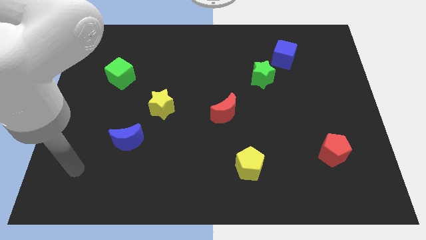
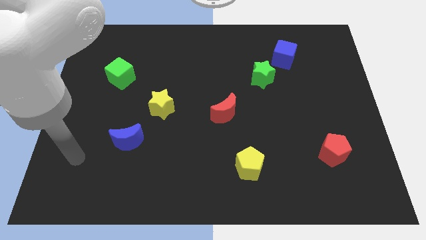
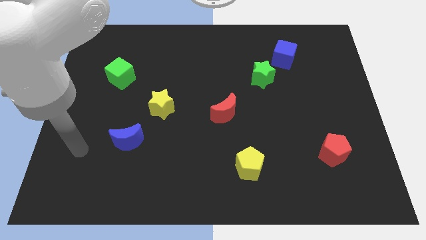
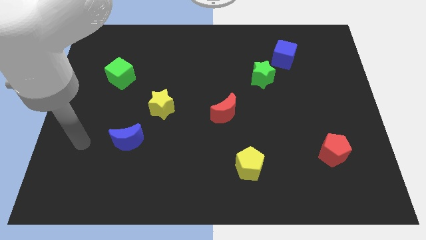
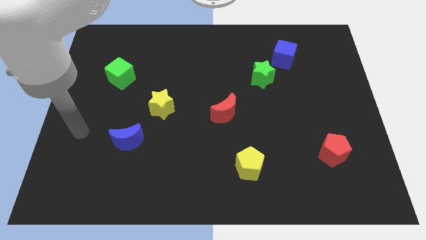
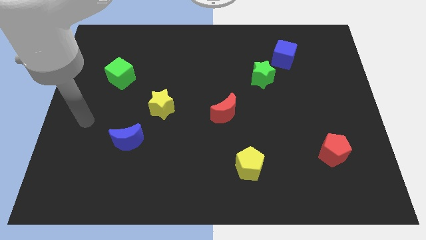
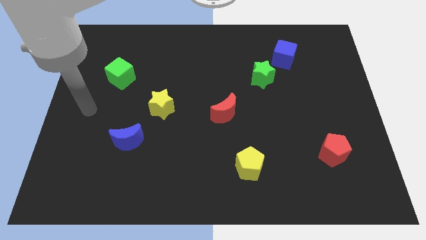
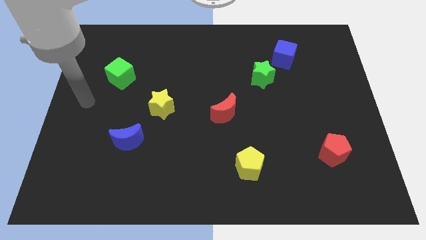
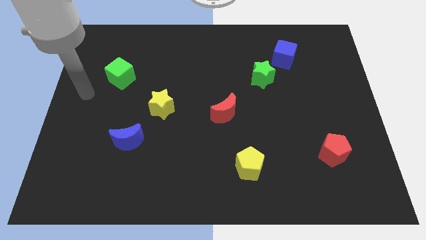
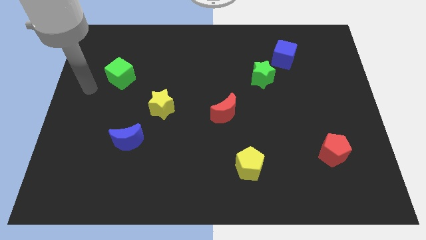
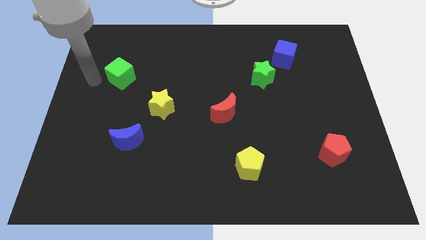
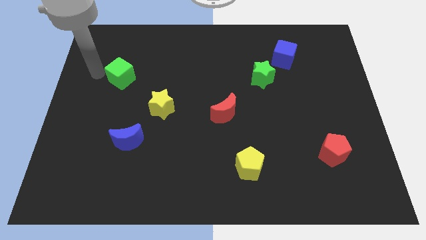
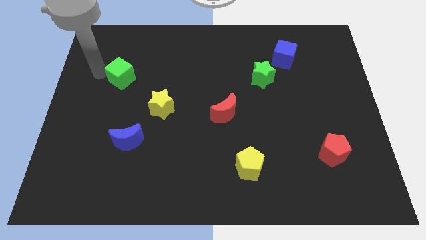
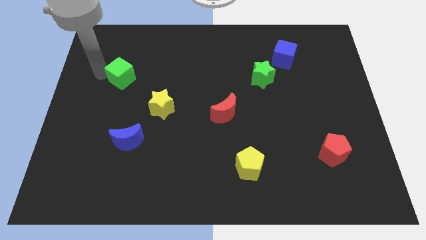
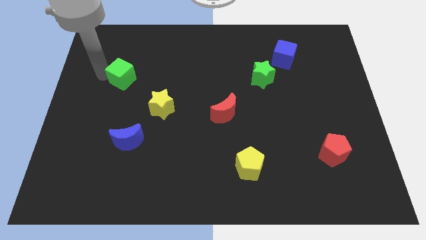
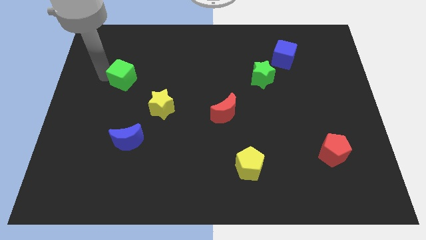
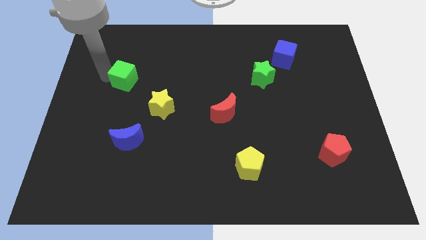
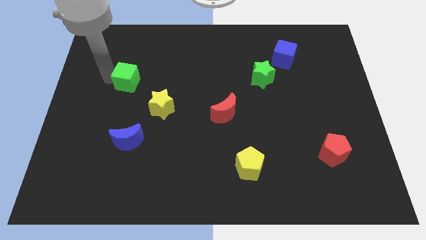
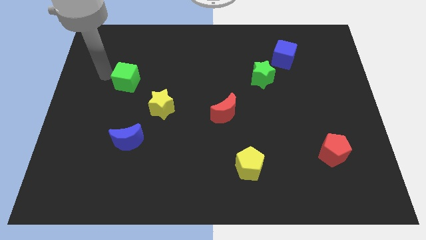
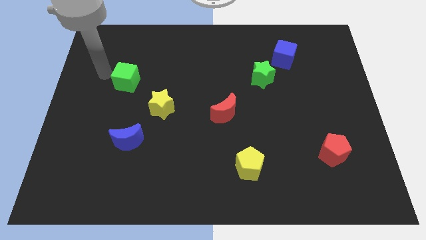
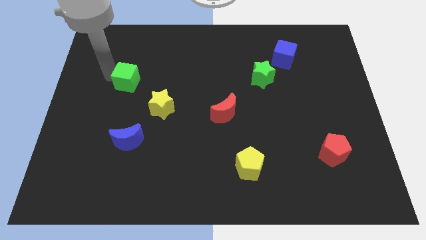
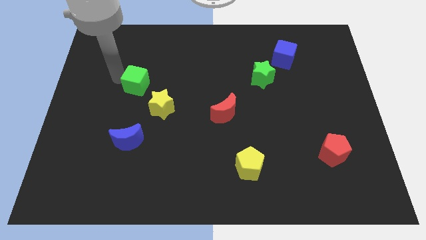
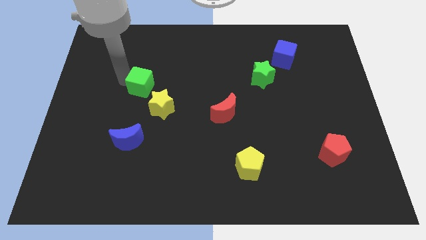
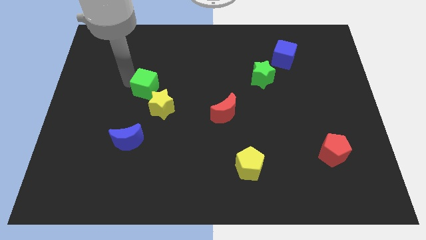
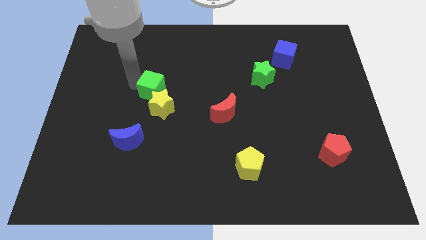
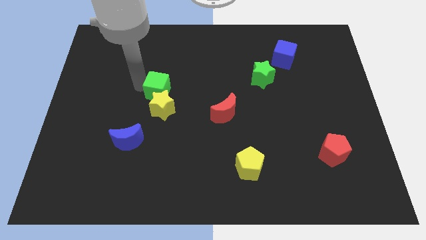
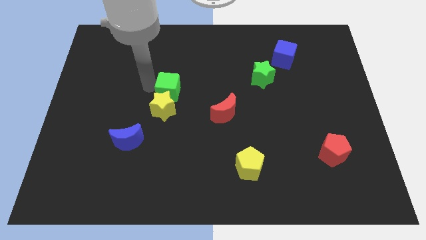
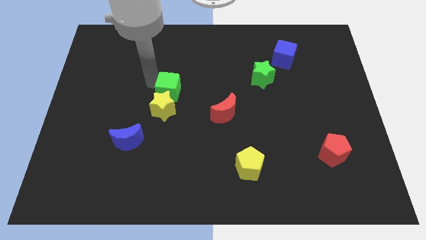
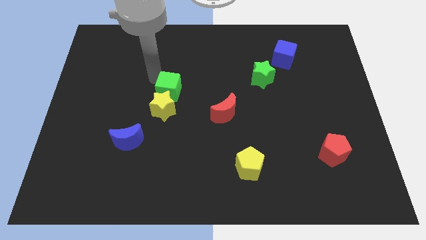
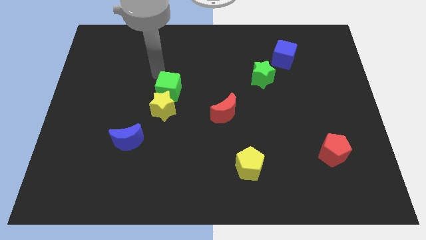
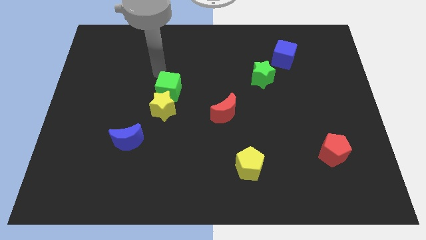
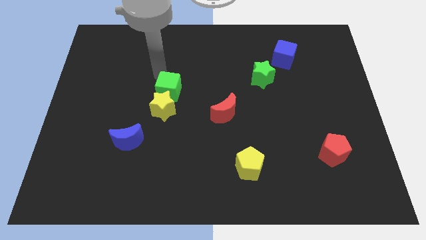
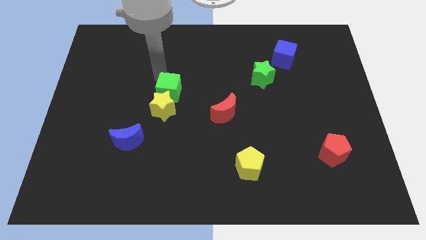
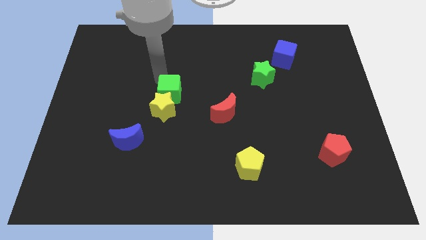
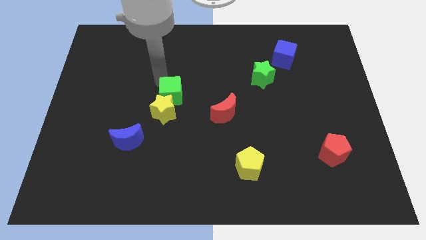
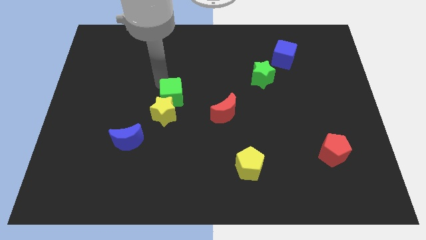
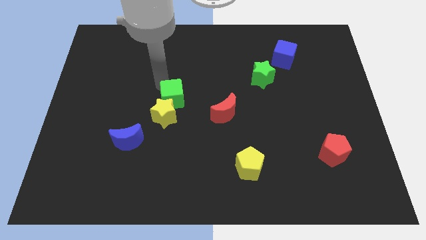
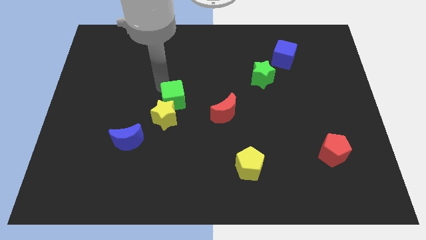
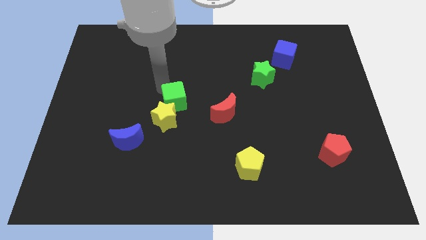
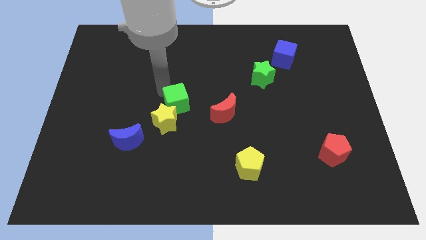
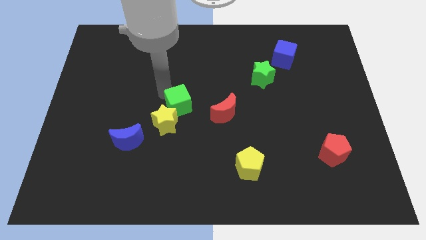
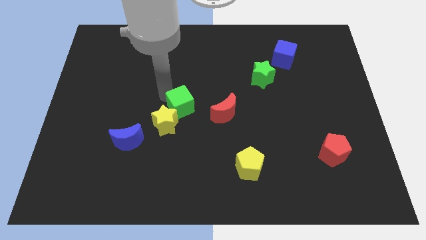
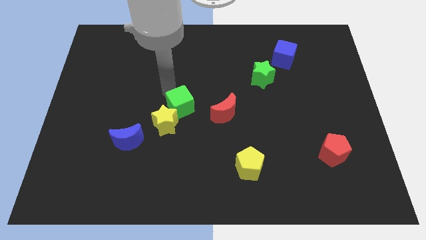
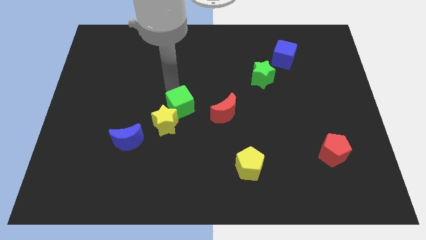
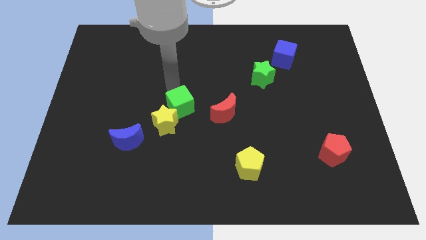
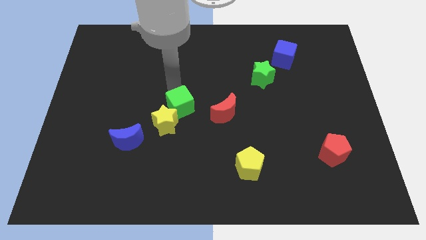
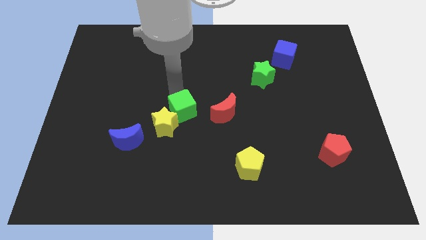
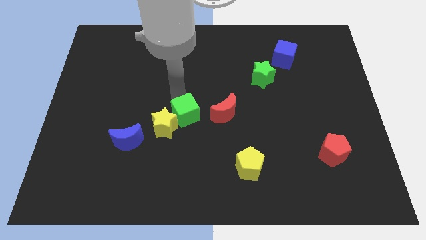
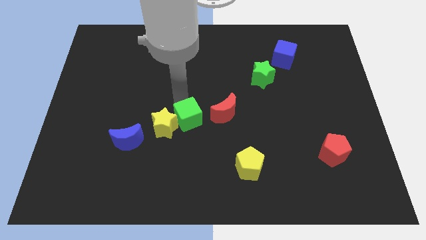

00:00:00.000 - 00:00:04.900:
push the green cube downwards and to the right diagonally

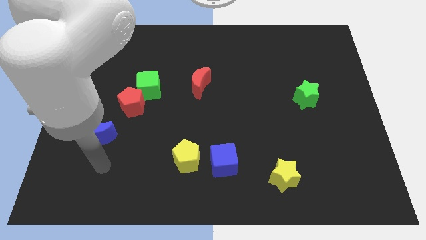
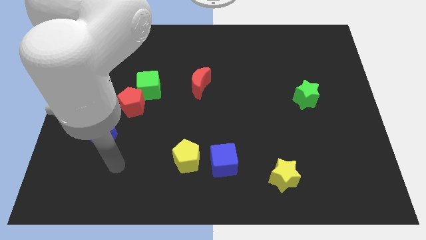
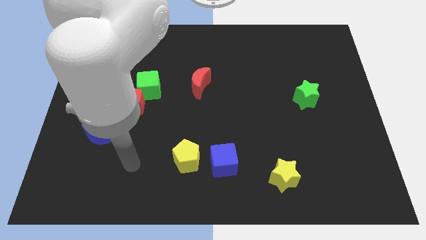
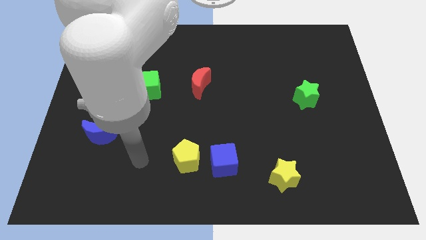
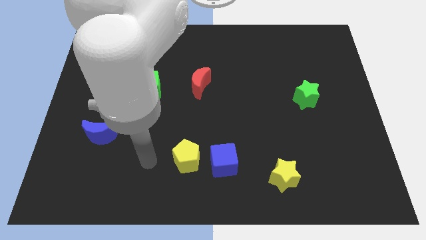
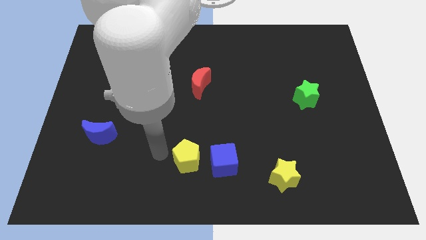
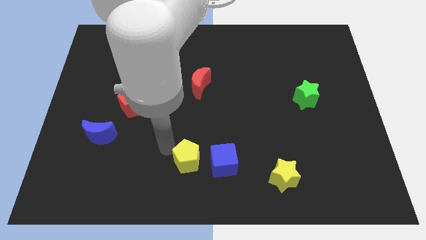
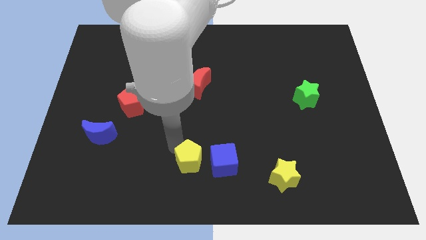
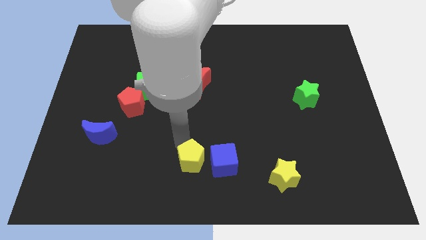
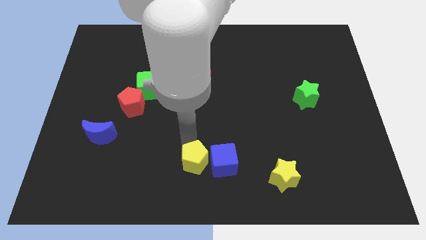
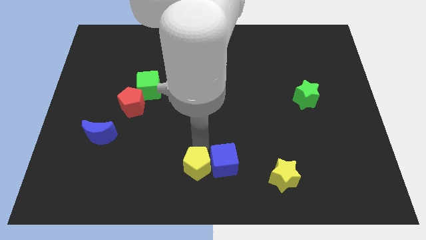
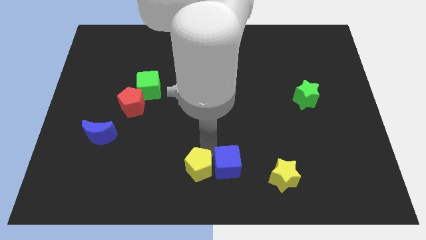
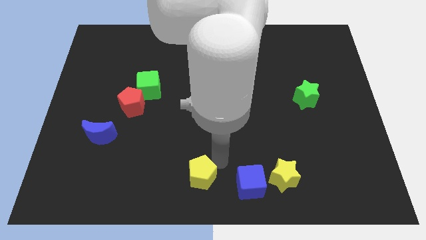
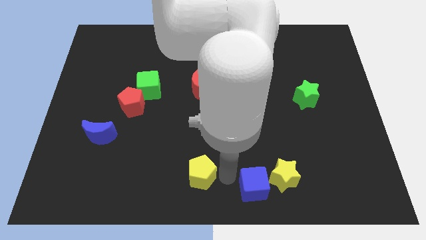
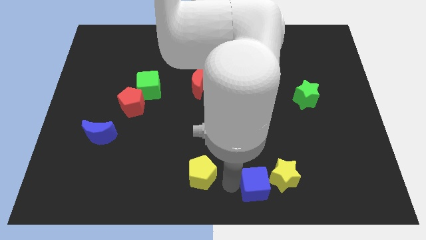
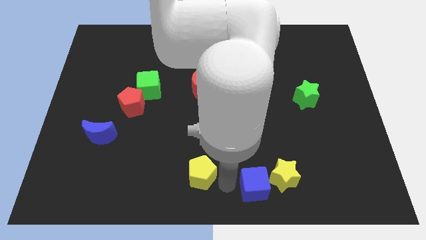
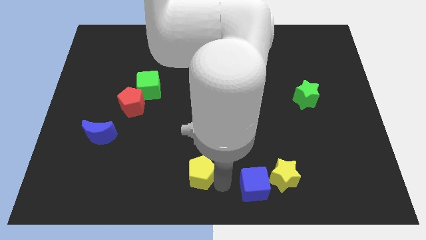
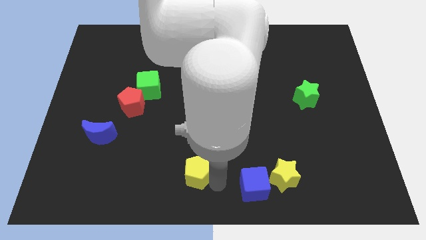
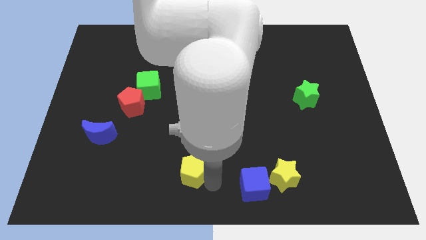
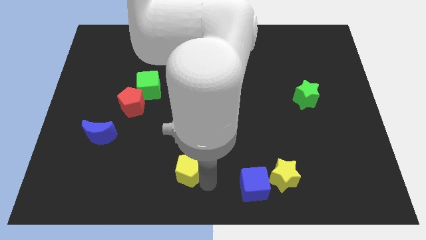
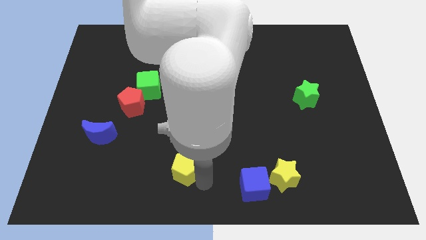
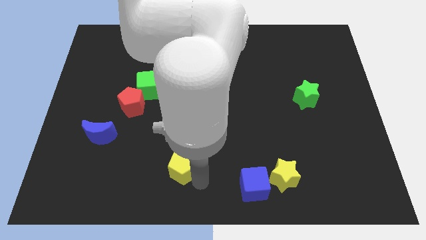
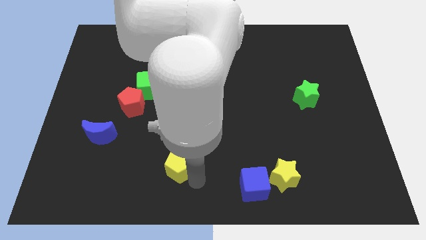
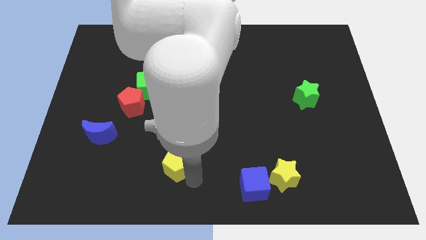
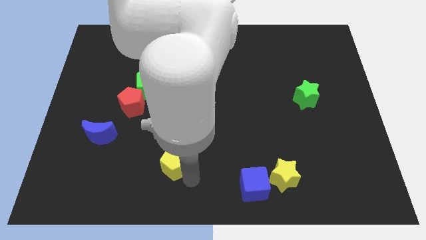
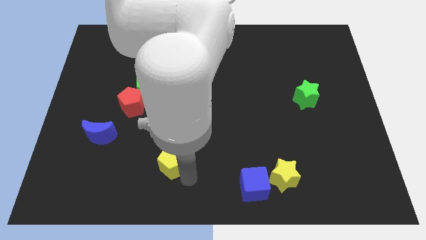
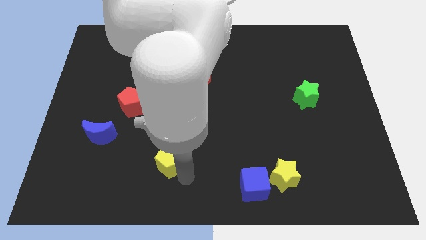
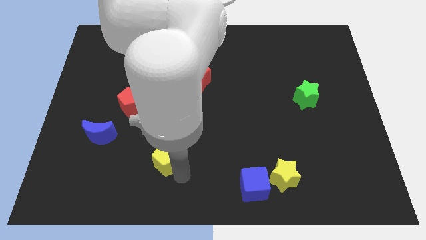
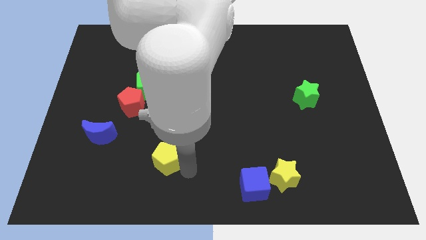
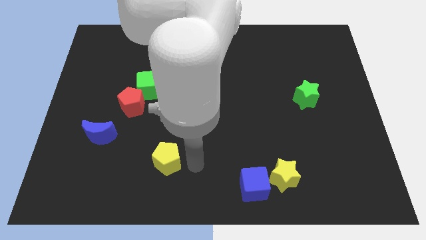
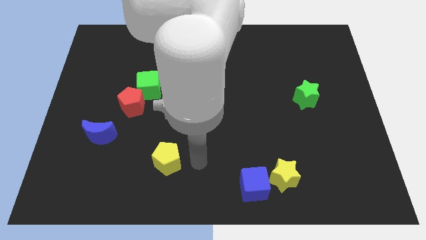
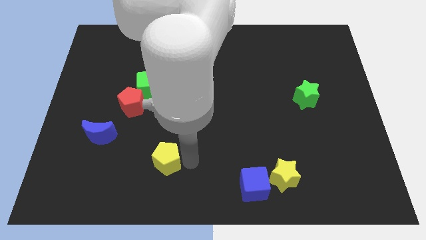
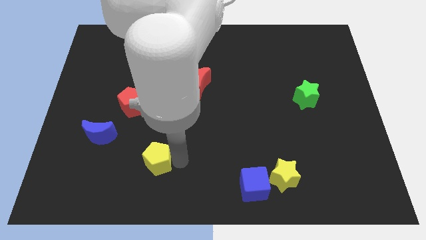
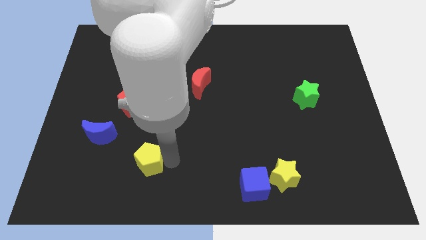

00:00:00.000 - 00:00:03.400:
slide the yellow pentagon left a bit
